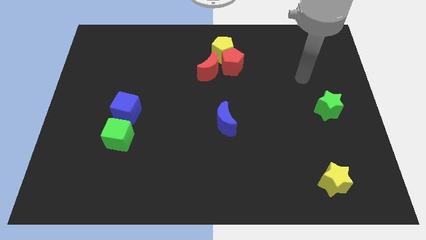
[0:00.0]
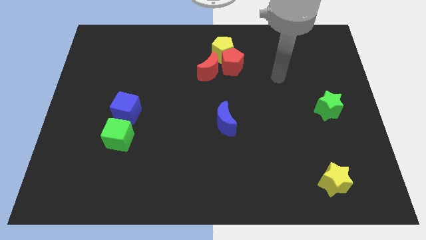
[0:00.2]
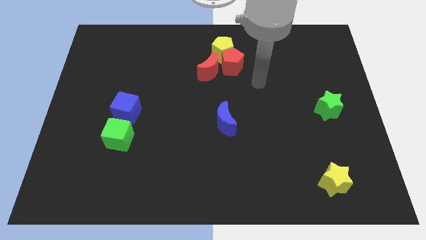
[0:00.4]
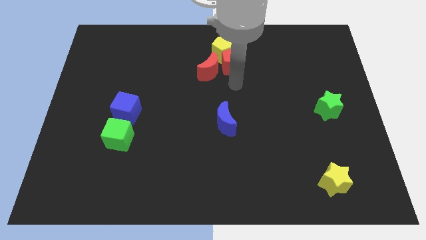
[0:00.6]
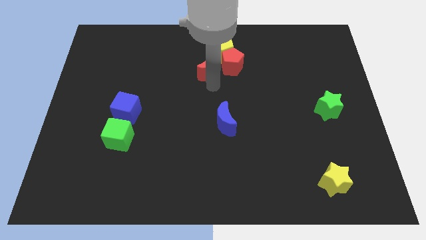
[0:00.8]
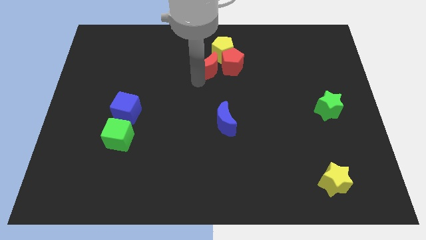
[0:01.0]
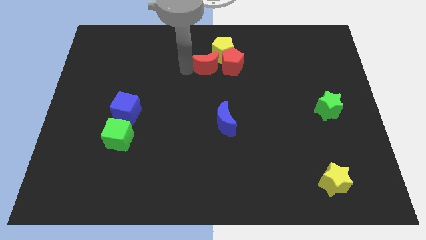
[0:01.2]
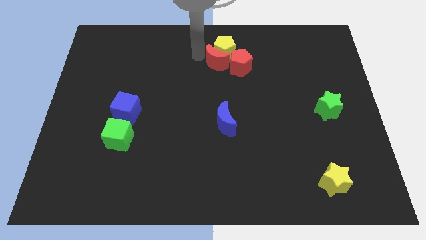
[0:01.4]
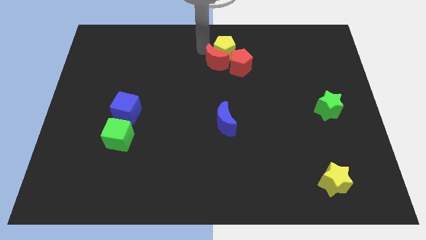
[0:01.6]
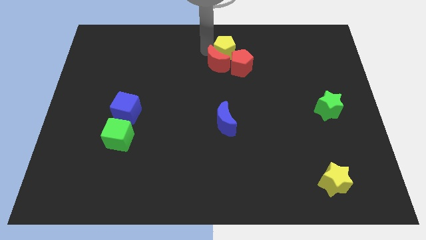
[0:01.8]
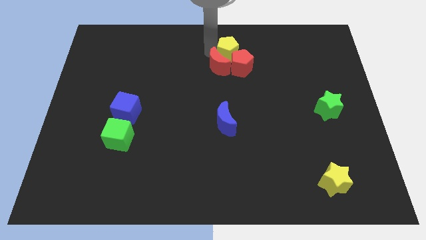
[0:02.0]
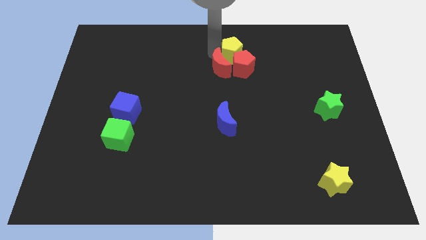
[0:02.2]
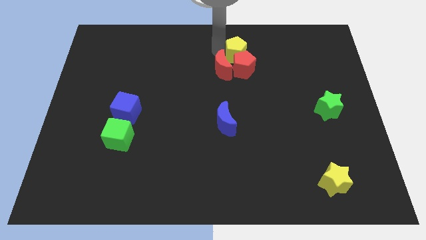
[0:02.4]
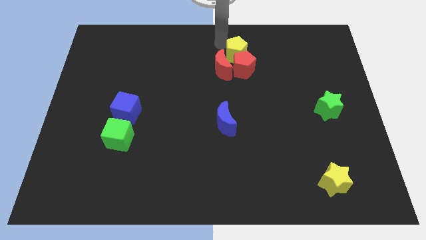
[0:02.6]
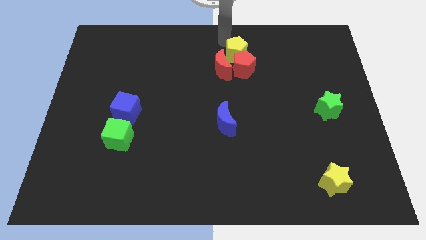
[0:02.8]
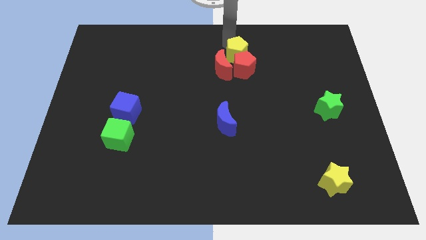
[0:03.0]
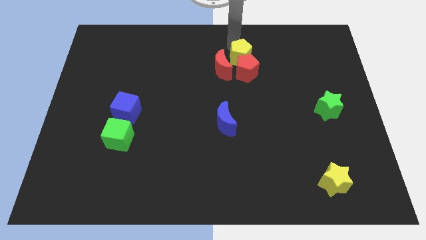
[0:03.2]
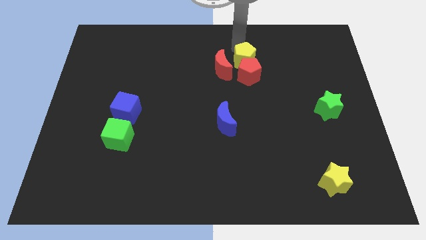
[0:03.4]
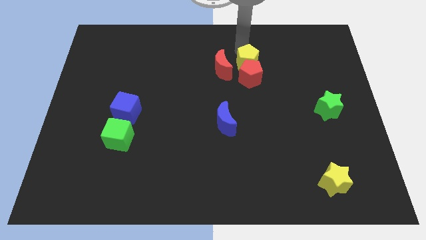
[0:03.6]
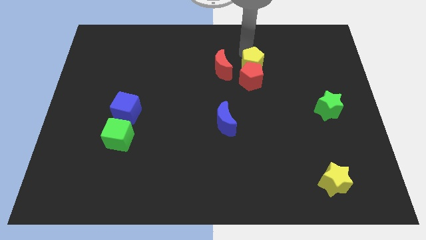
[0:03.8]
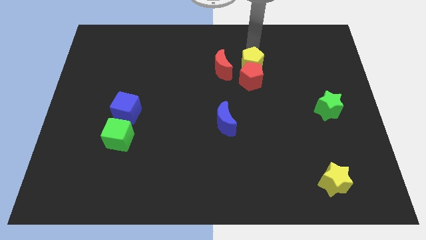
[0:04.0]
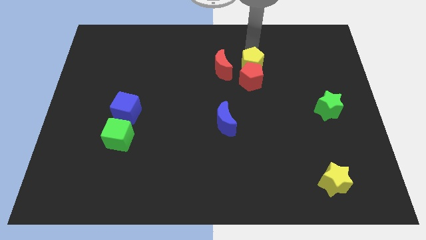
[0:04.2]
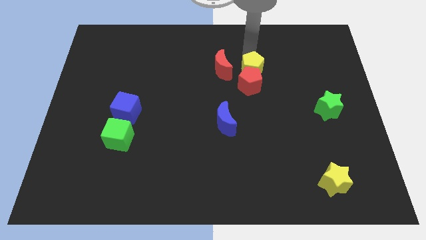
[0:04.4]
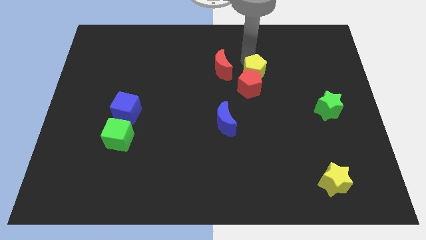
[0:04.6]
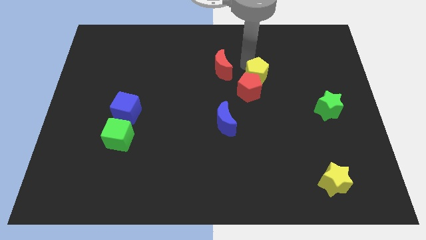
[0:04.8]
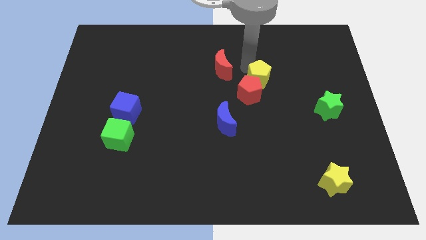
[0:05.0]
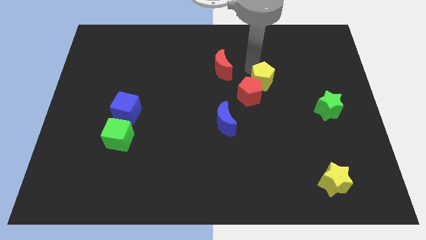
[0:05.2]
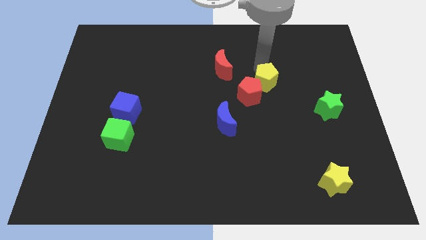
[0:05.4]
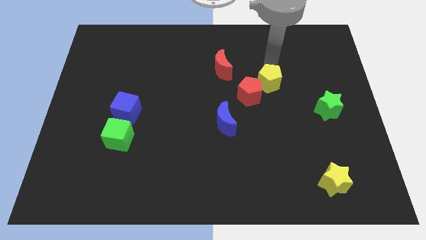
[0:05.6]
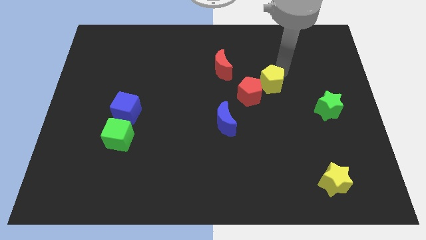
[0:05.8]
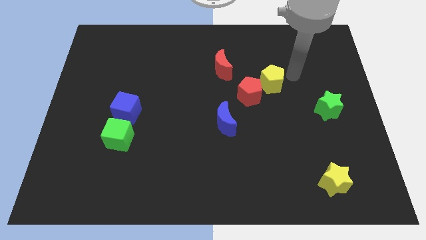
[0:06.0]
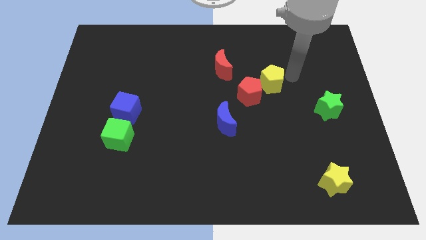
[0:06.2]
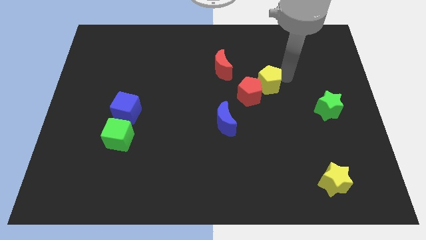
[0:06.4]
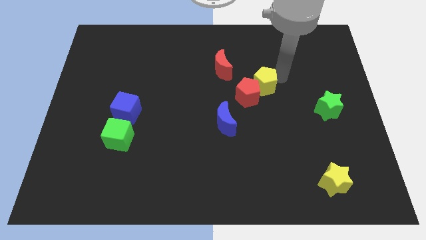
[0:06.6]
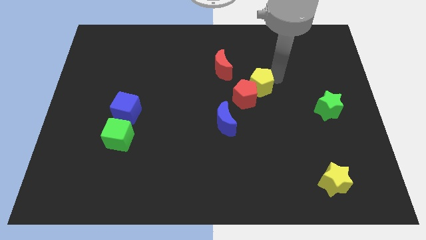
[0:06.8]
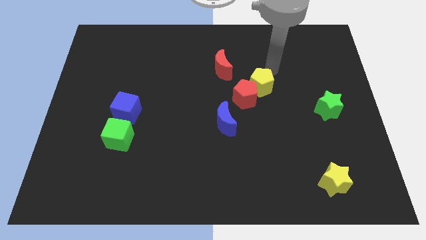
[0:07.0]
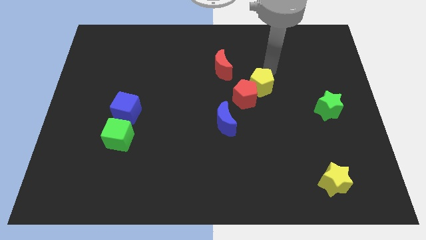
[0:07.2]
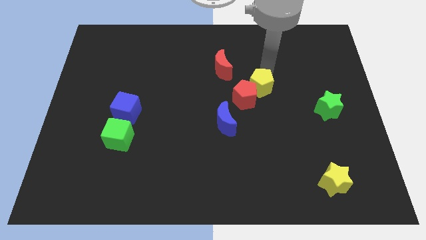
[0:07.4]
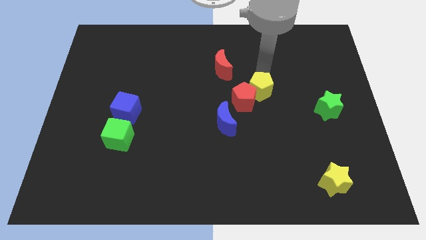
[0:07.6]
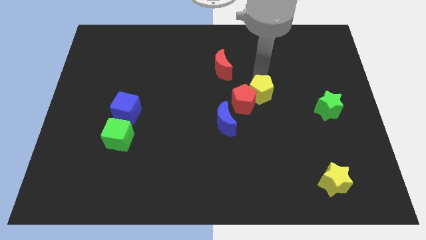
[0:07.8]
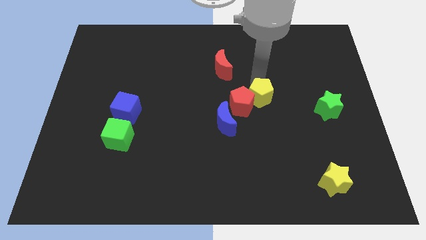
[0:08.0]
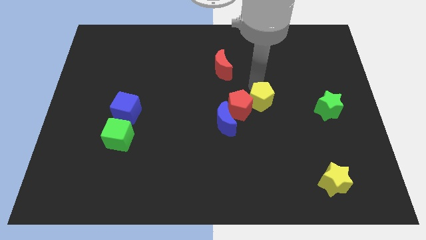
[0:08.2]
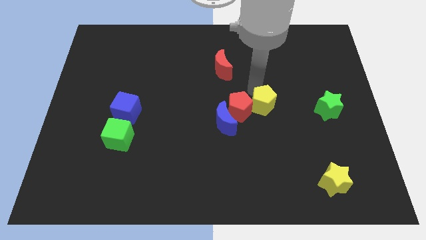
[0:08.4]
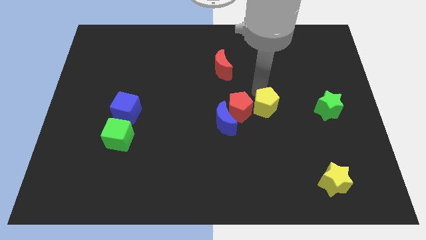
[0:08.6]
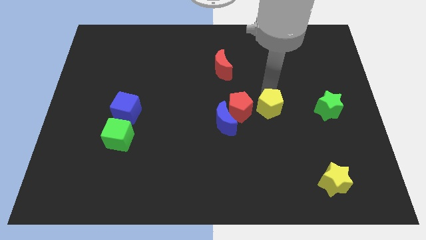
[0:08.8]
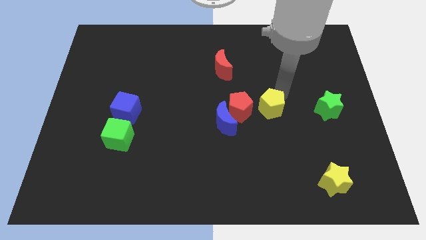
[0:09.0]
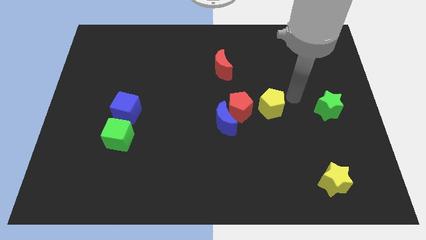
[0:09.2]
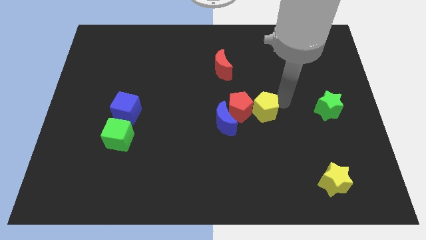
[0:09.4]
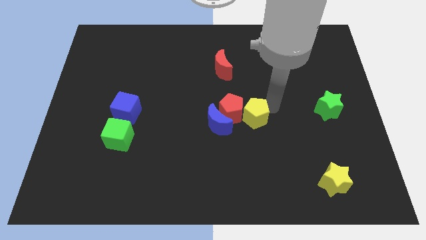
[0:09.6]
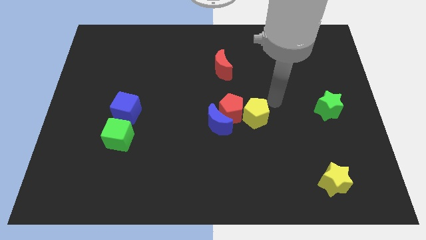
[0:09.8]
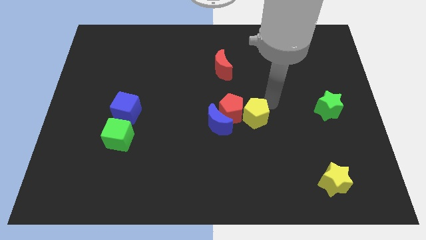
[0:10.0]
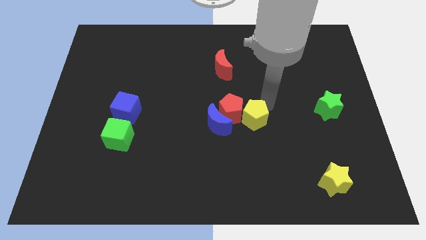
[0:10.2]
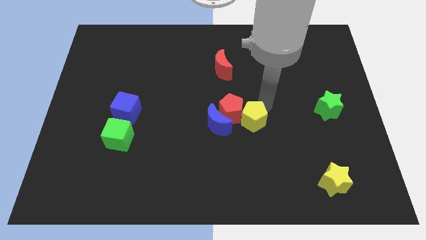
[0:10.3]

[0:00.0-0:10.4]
slide the yellow pentagon down

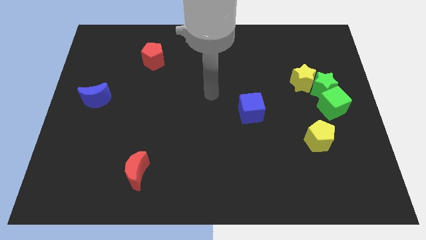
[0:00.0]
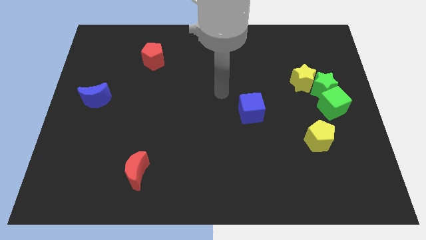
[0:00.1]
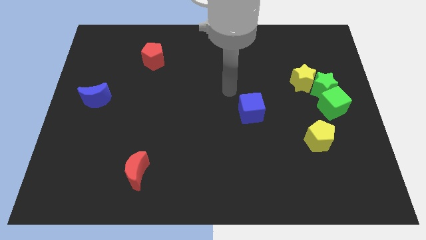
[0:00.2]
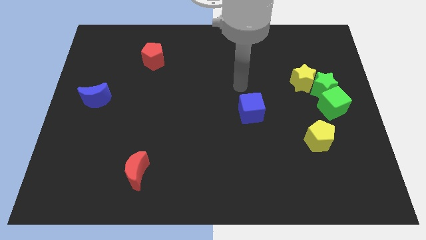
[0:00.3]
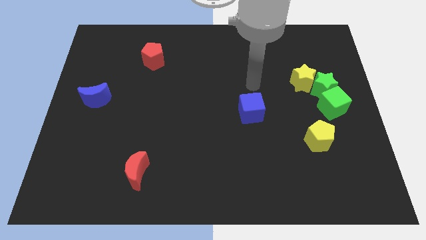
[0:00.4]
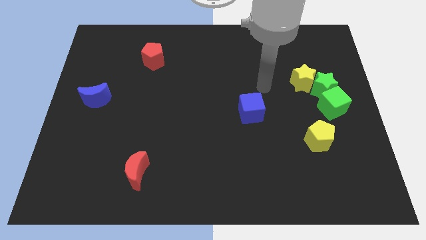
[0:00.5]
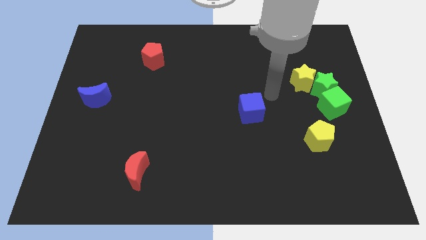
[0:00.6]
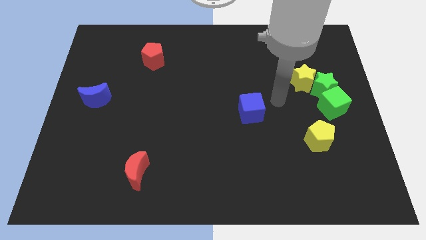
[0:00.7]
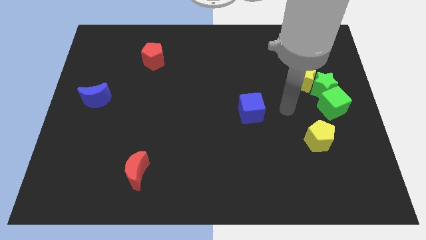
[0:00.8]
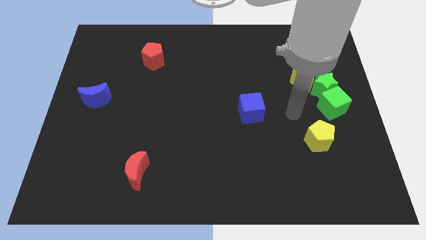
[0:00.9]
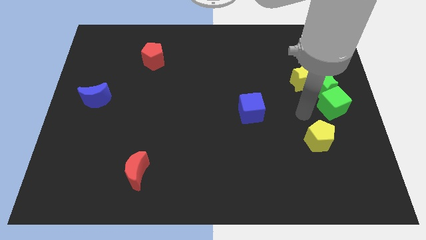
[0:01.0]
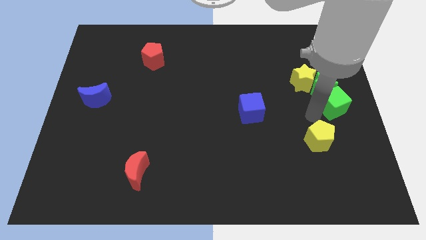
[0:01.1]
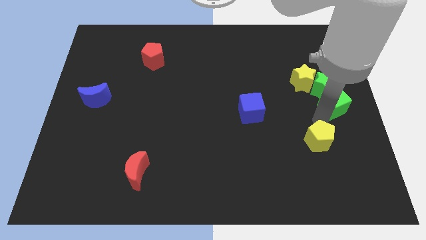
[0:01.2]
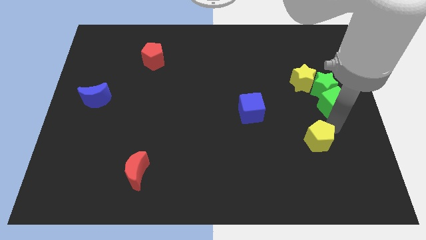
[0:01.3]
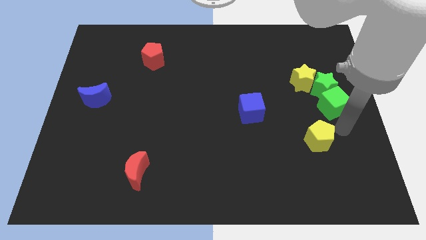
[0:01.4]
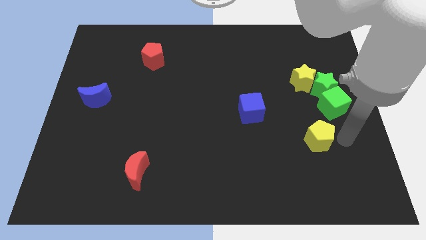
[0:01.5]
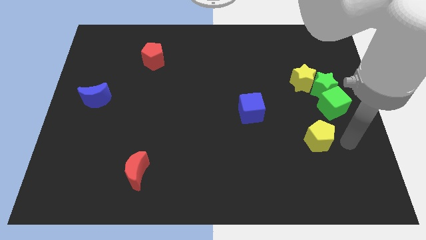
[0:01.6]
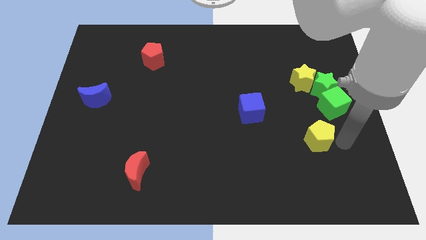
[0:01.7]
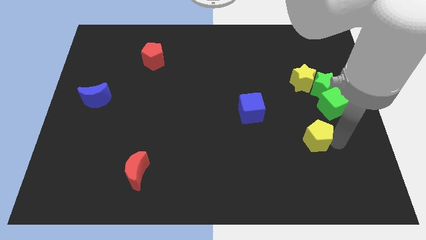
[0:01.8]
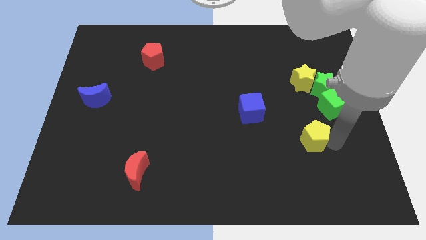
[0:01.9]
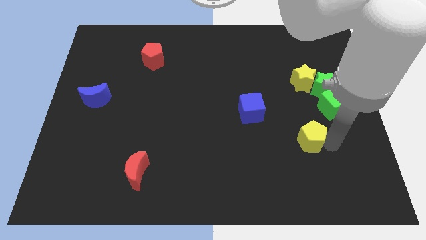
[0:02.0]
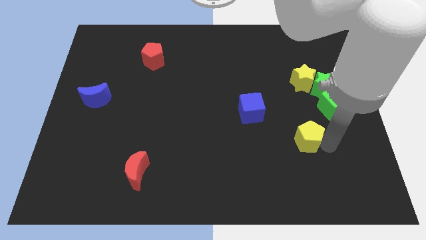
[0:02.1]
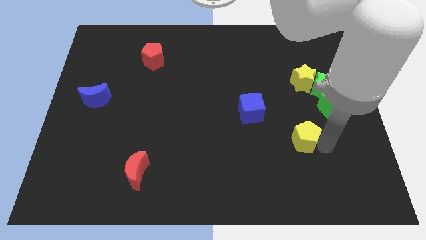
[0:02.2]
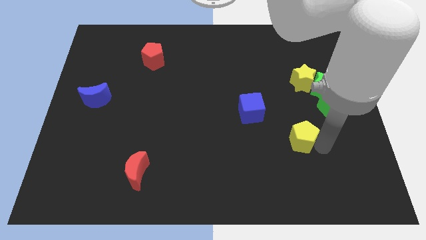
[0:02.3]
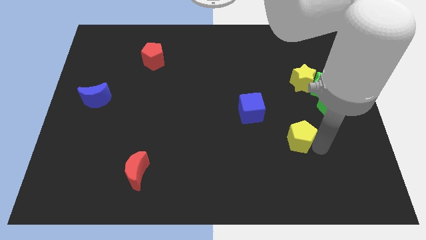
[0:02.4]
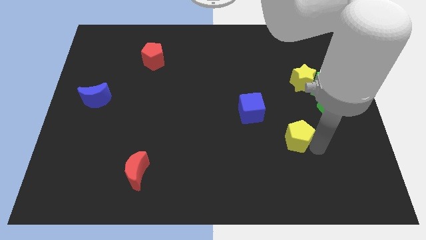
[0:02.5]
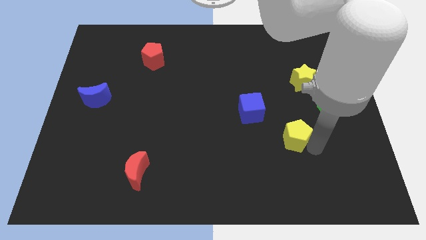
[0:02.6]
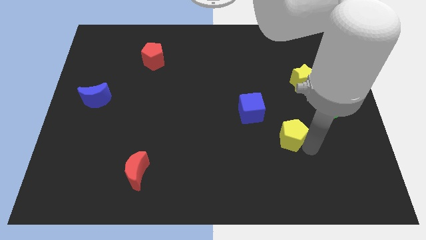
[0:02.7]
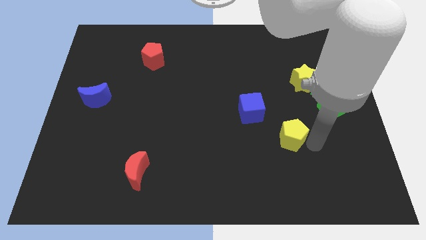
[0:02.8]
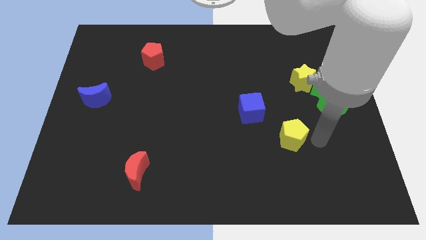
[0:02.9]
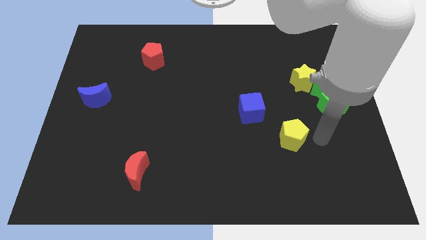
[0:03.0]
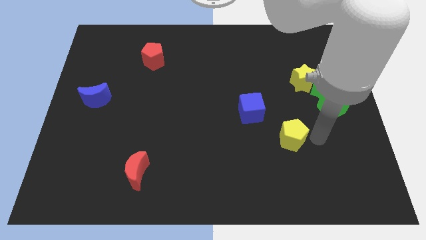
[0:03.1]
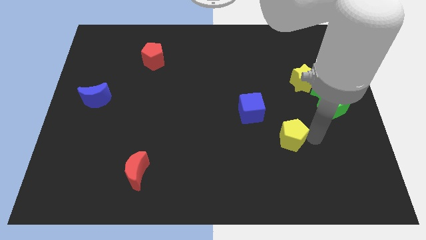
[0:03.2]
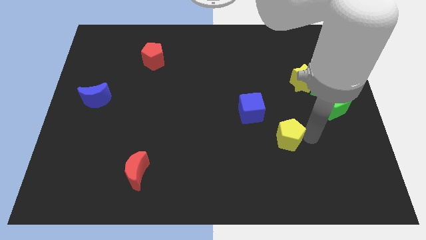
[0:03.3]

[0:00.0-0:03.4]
push the yellow pentagon a little bit left
